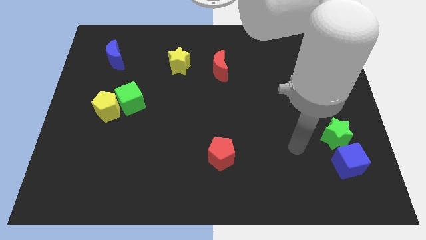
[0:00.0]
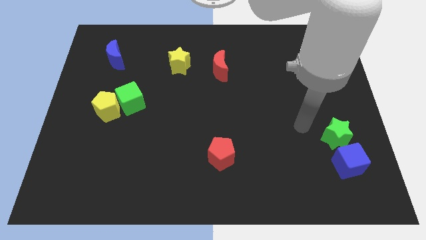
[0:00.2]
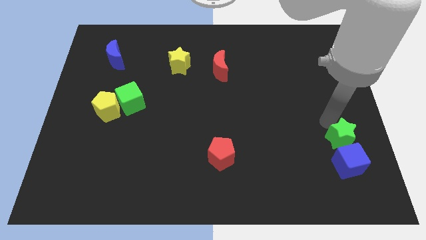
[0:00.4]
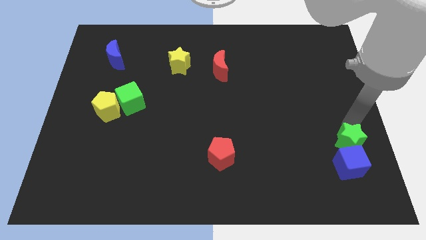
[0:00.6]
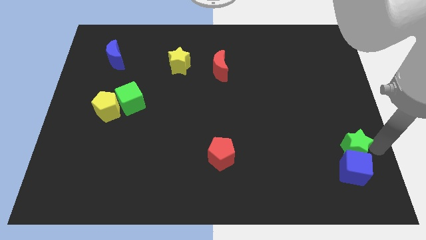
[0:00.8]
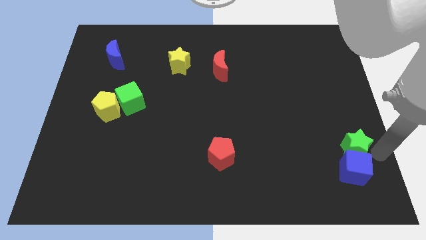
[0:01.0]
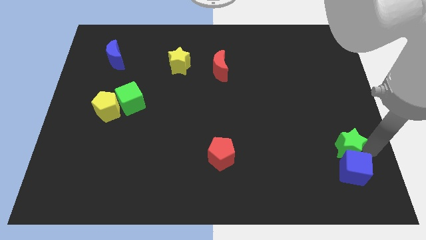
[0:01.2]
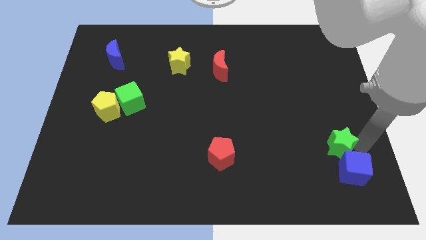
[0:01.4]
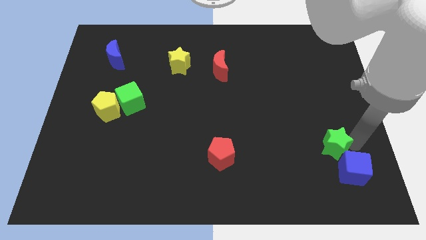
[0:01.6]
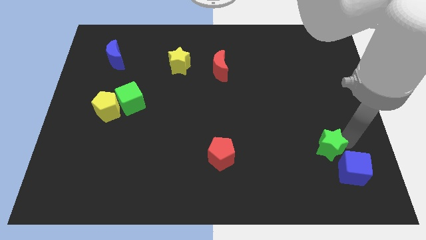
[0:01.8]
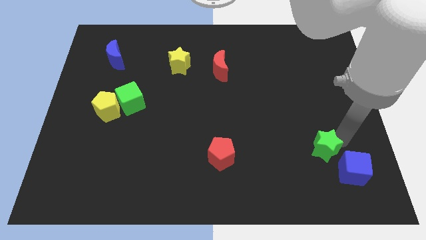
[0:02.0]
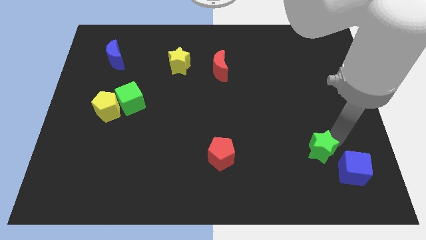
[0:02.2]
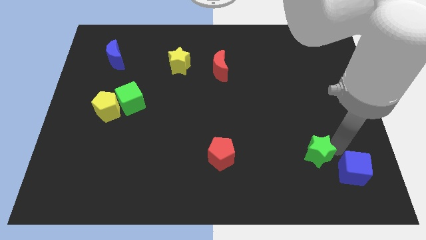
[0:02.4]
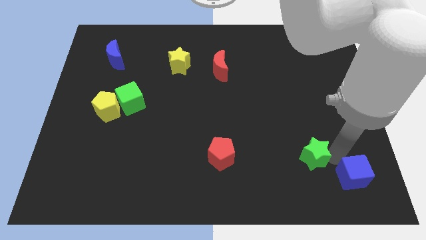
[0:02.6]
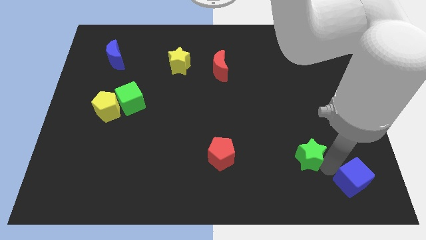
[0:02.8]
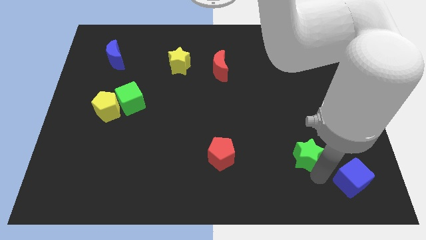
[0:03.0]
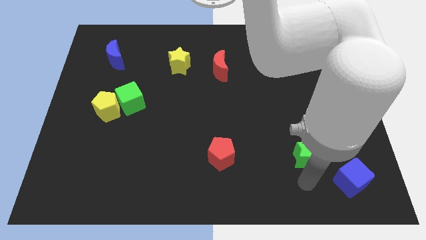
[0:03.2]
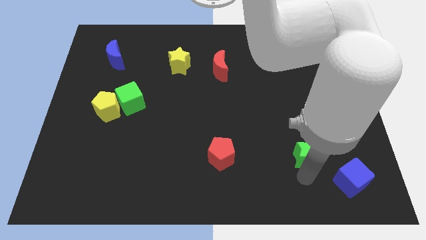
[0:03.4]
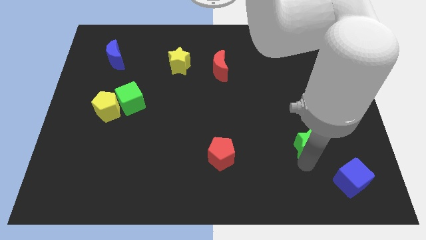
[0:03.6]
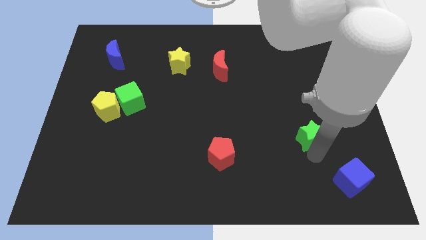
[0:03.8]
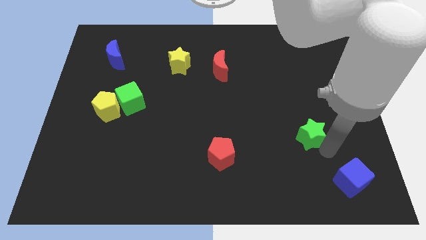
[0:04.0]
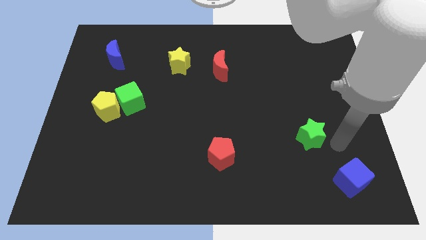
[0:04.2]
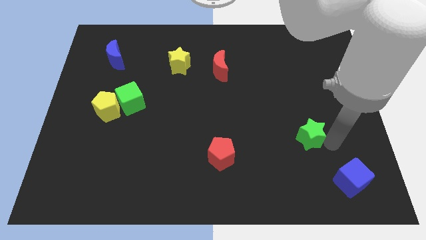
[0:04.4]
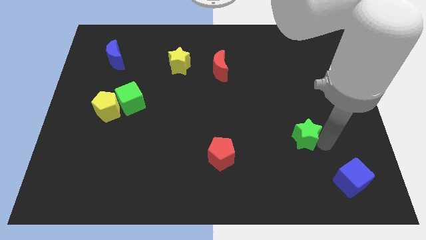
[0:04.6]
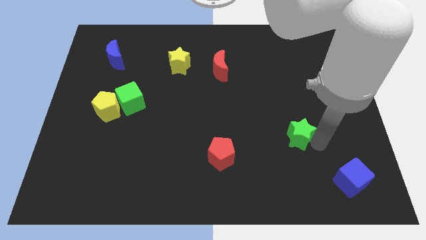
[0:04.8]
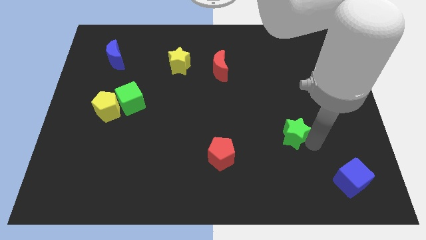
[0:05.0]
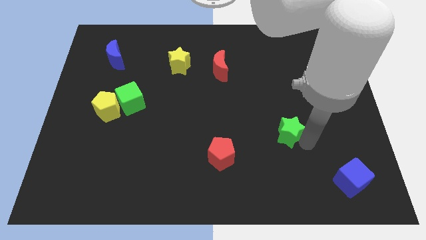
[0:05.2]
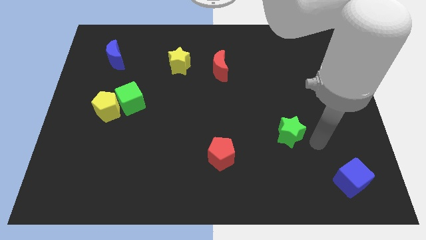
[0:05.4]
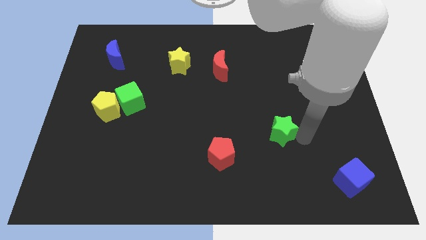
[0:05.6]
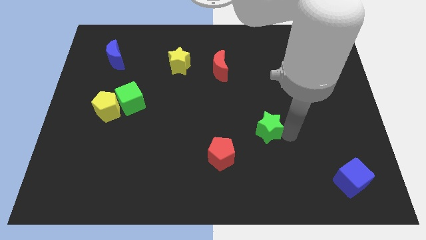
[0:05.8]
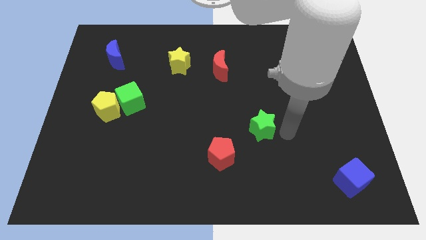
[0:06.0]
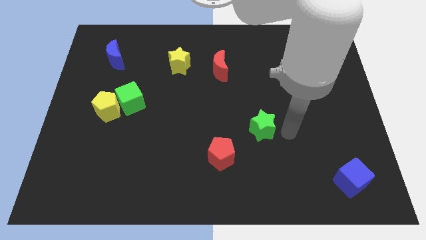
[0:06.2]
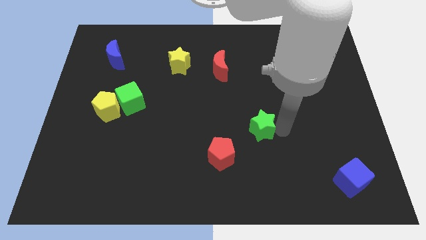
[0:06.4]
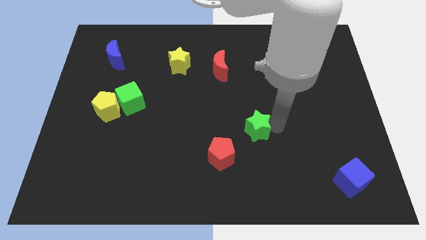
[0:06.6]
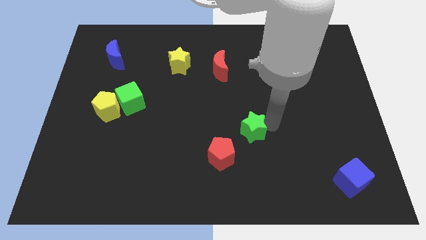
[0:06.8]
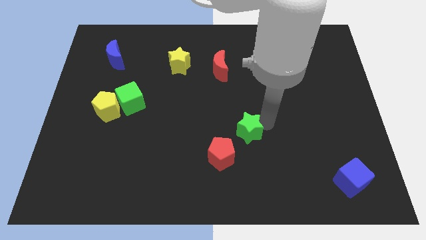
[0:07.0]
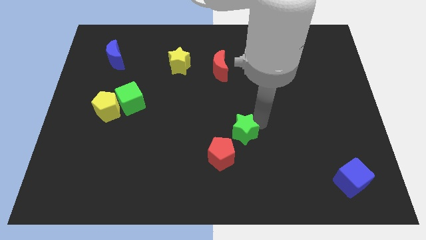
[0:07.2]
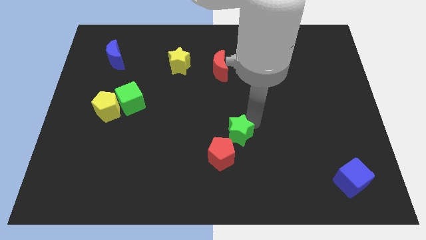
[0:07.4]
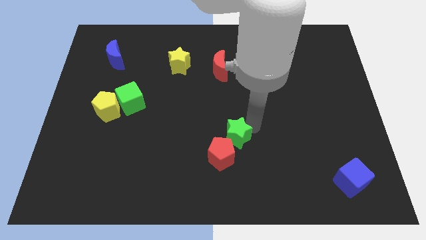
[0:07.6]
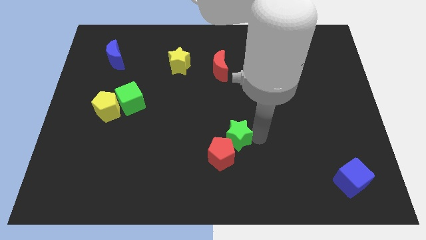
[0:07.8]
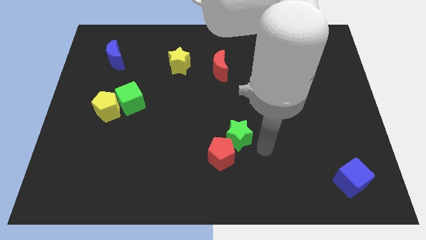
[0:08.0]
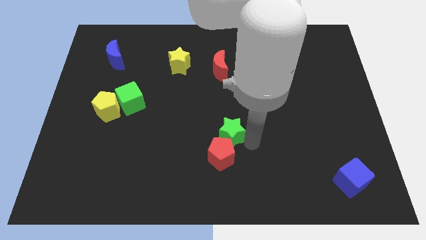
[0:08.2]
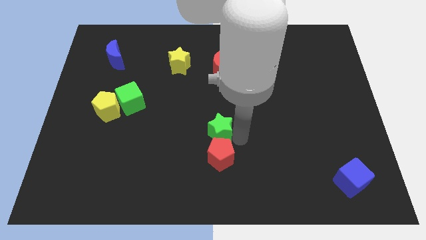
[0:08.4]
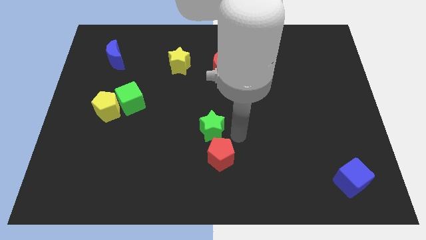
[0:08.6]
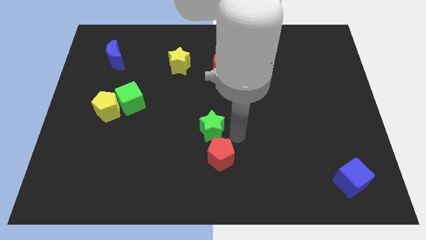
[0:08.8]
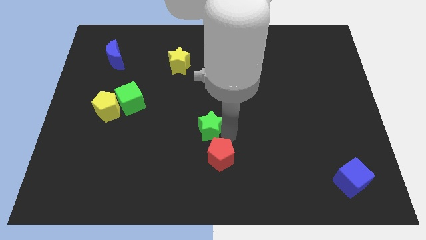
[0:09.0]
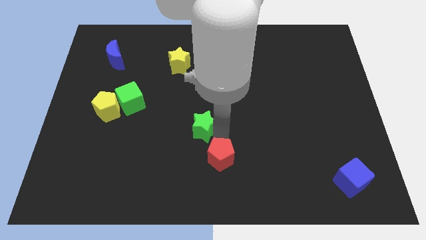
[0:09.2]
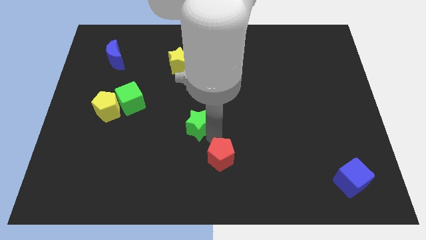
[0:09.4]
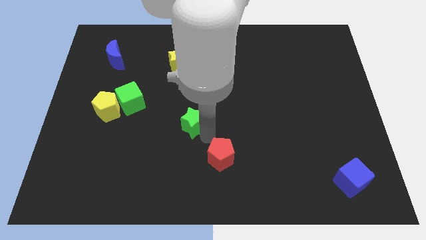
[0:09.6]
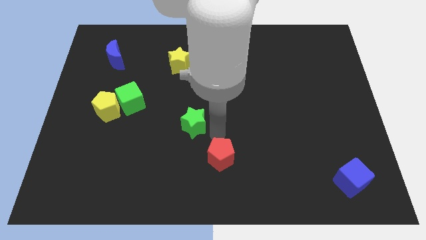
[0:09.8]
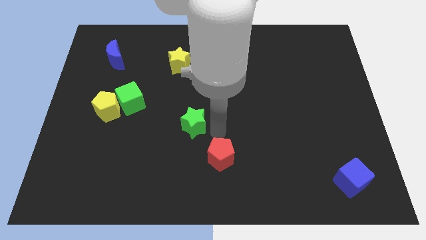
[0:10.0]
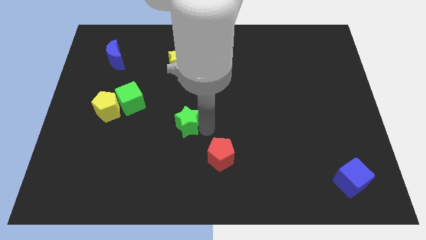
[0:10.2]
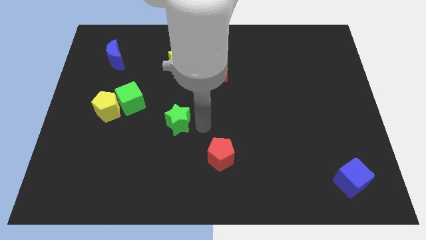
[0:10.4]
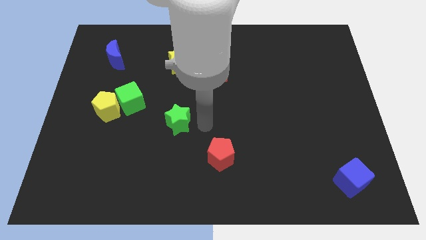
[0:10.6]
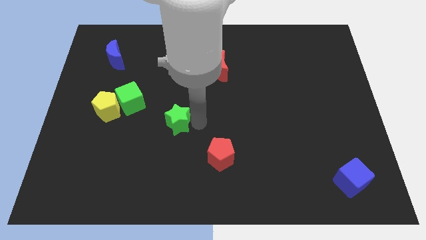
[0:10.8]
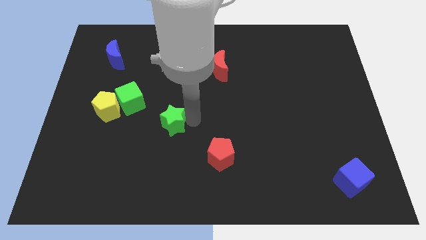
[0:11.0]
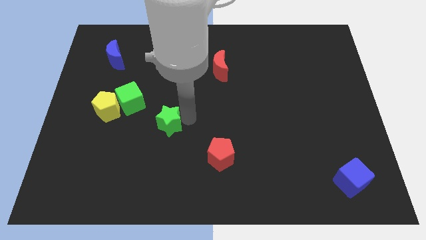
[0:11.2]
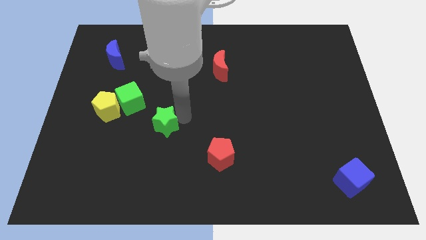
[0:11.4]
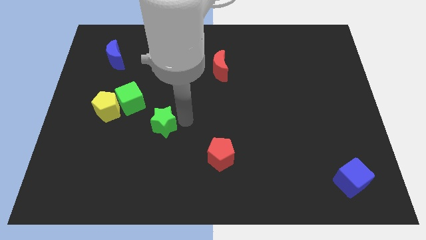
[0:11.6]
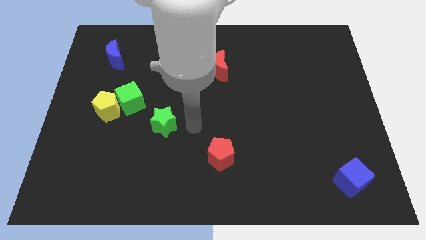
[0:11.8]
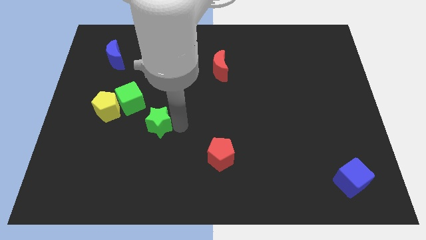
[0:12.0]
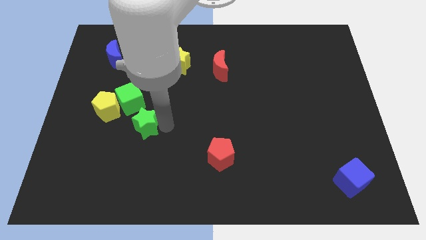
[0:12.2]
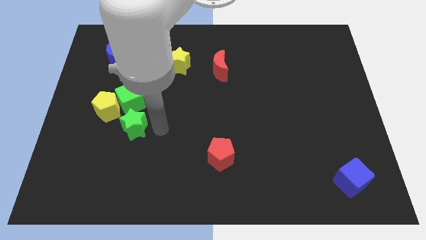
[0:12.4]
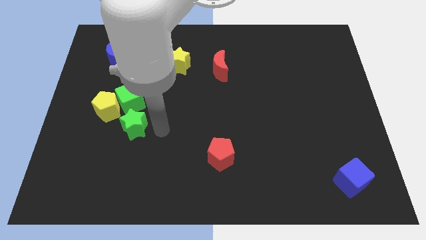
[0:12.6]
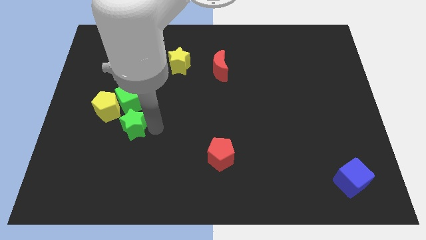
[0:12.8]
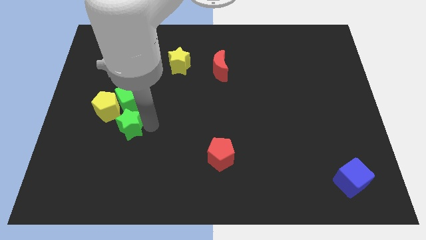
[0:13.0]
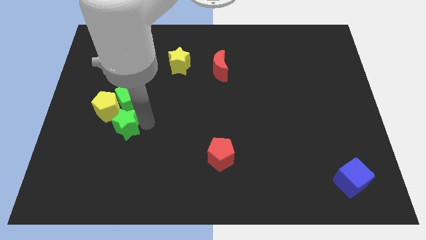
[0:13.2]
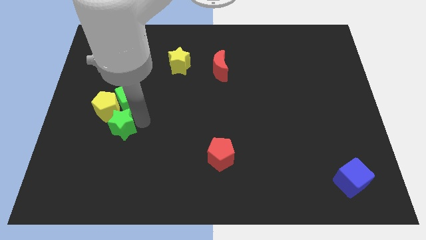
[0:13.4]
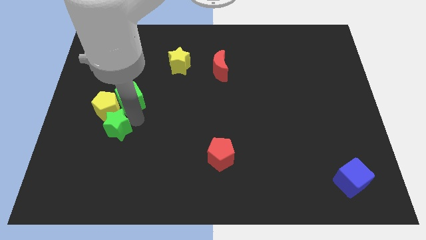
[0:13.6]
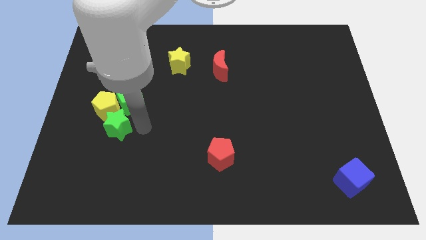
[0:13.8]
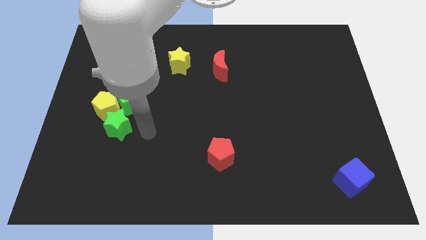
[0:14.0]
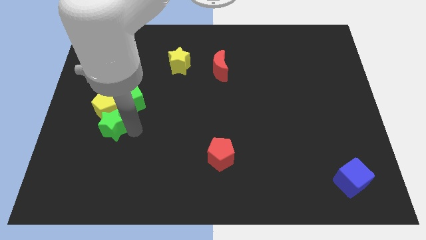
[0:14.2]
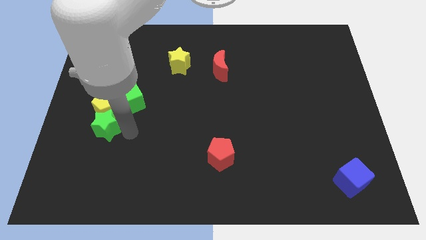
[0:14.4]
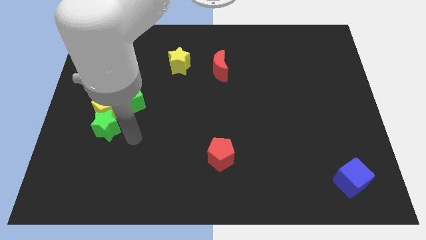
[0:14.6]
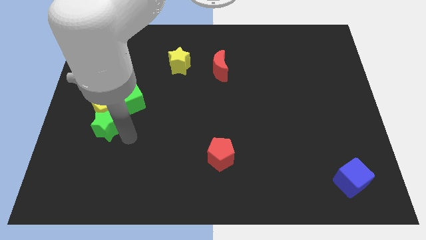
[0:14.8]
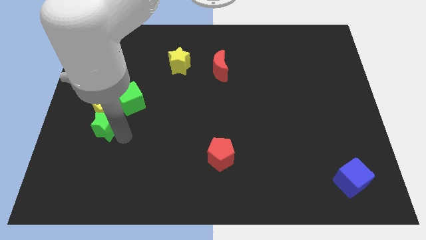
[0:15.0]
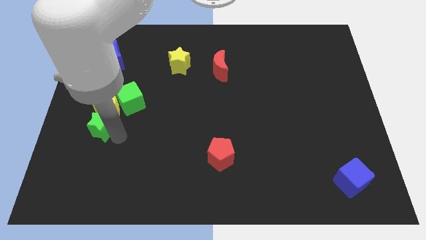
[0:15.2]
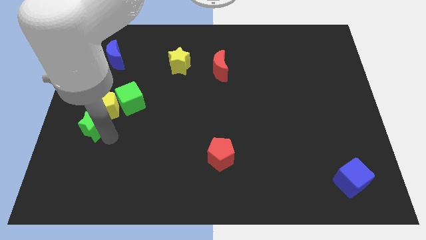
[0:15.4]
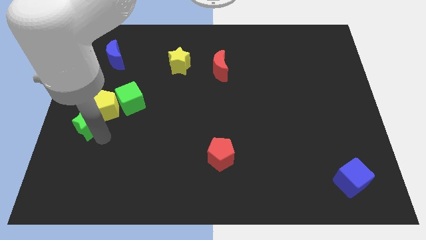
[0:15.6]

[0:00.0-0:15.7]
move the green star to the left side
